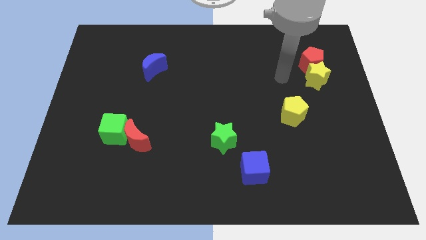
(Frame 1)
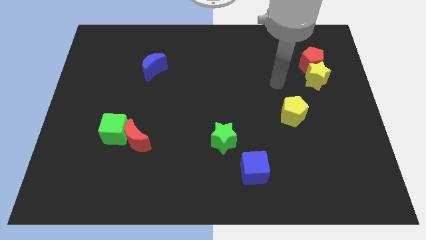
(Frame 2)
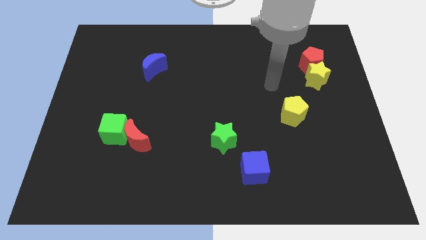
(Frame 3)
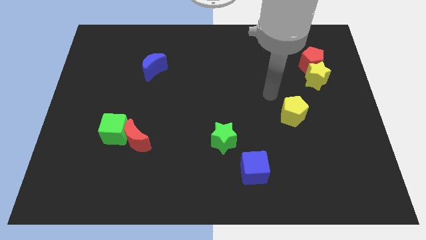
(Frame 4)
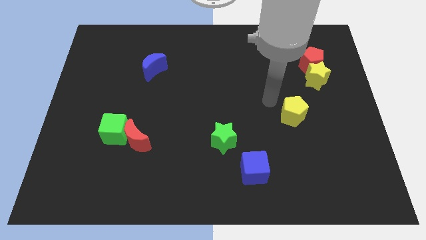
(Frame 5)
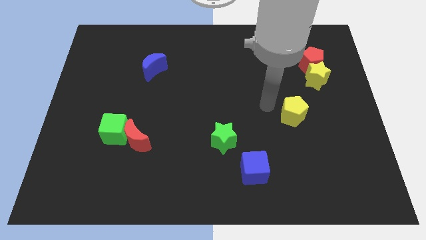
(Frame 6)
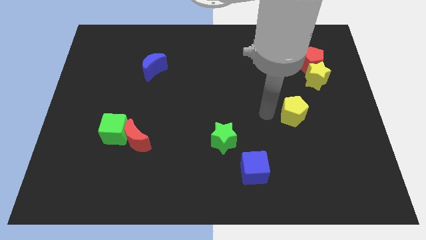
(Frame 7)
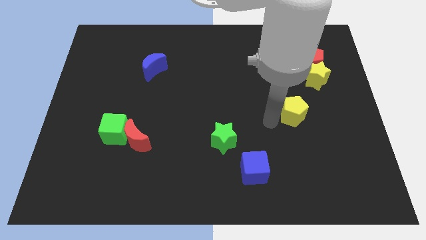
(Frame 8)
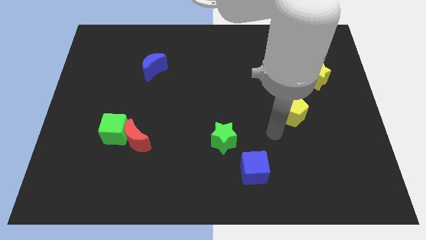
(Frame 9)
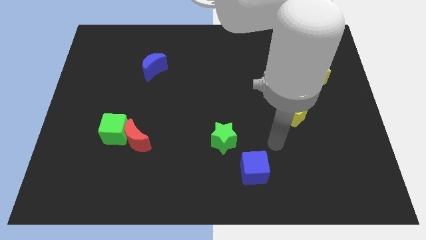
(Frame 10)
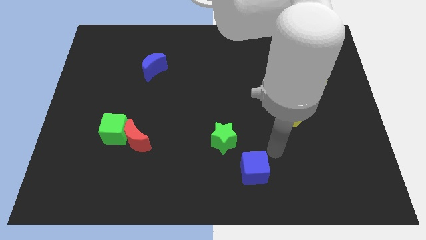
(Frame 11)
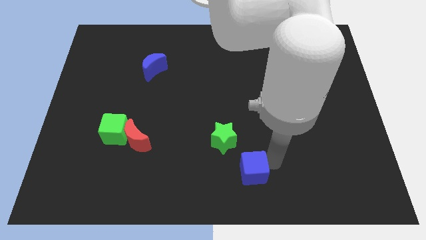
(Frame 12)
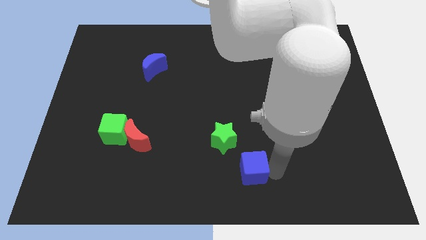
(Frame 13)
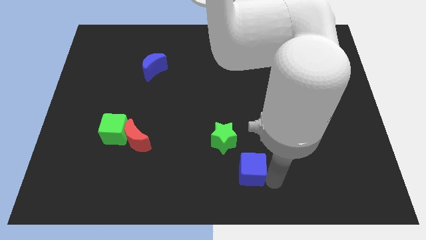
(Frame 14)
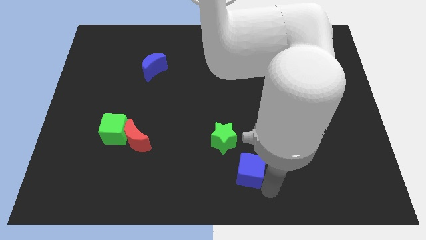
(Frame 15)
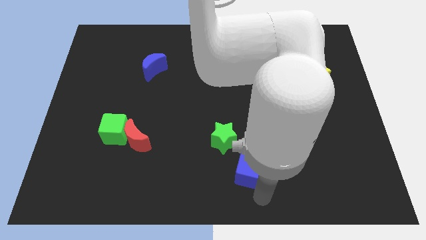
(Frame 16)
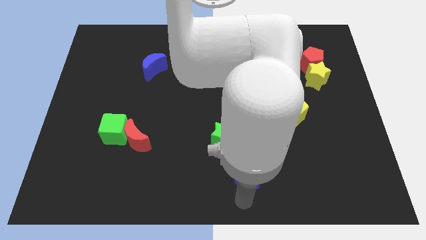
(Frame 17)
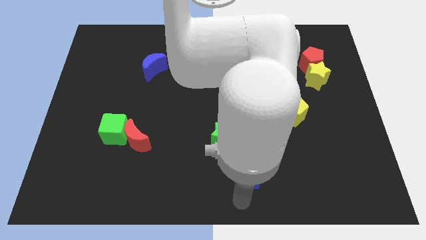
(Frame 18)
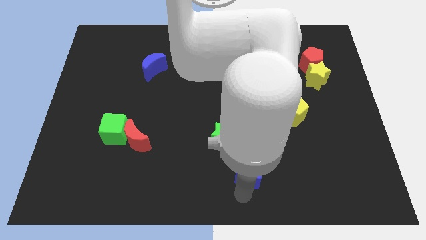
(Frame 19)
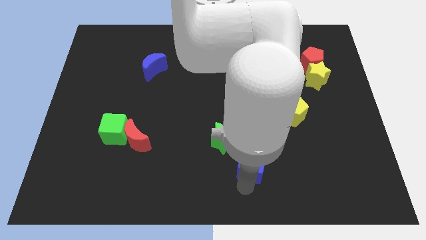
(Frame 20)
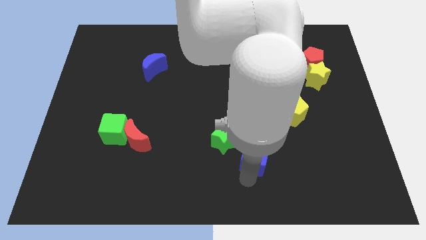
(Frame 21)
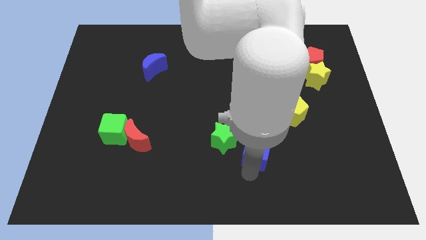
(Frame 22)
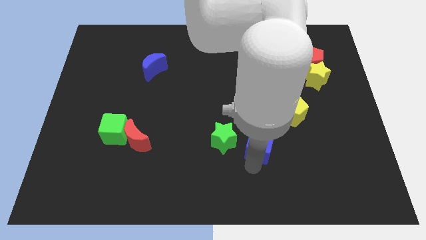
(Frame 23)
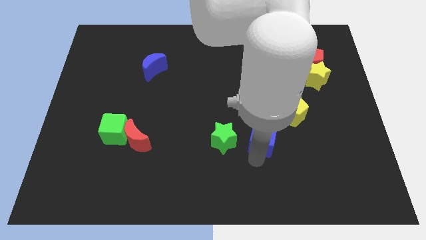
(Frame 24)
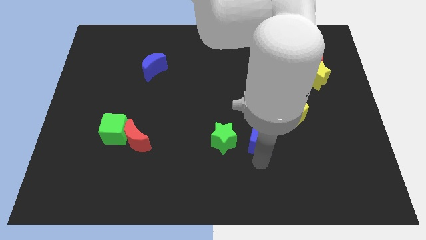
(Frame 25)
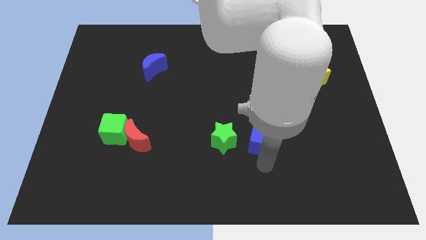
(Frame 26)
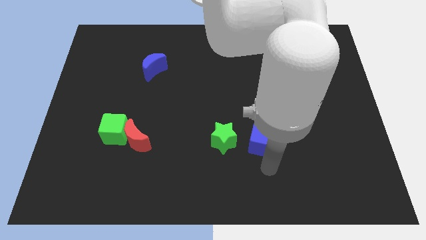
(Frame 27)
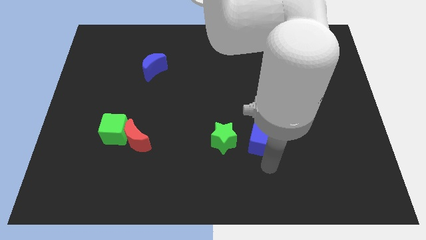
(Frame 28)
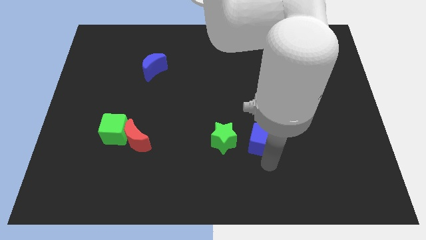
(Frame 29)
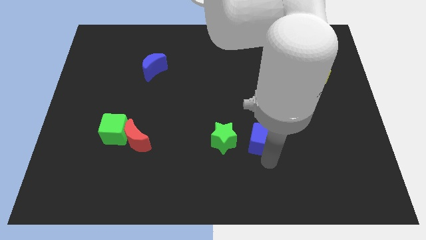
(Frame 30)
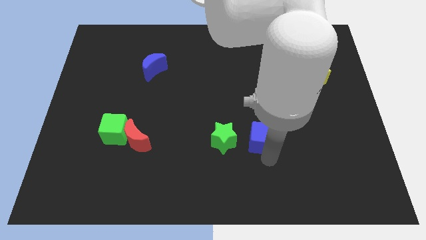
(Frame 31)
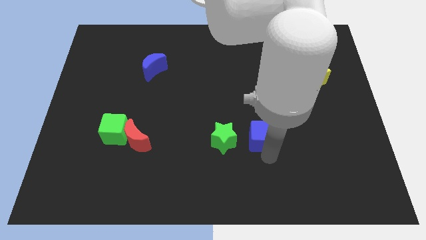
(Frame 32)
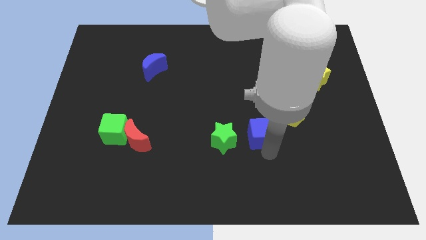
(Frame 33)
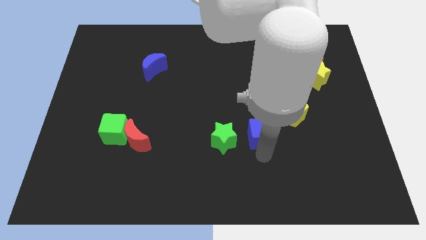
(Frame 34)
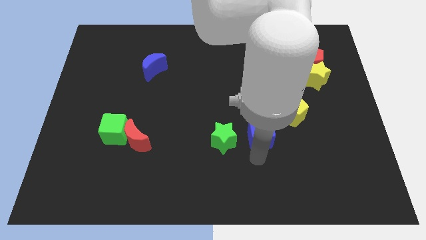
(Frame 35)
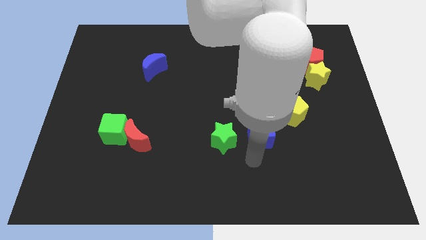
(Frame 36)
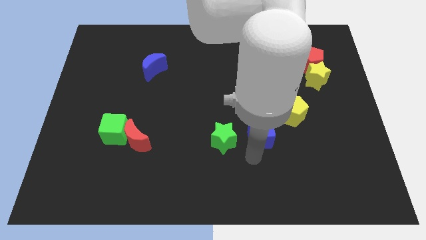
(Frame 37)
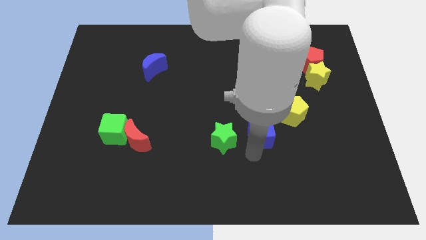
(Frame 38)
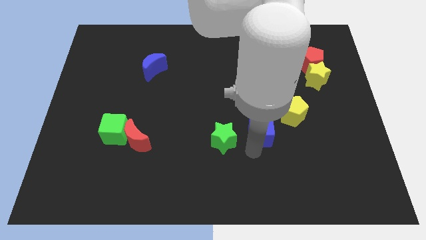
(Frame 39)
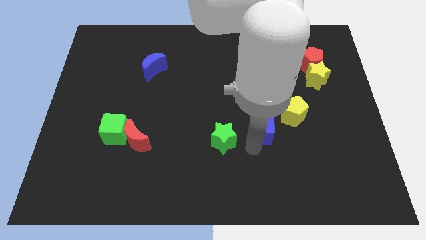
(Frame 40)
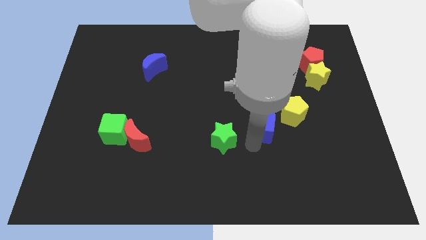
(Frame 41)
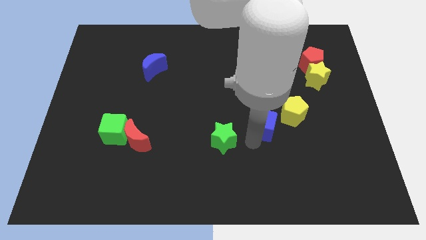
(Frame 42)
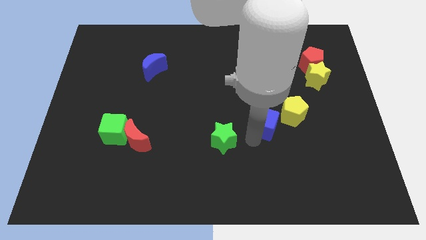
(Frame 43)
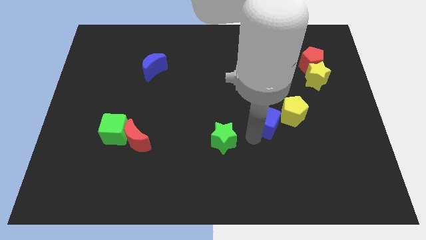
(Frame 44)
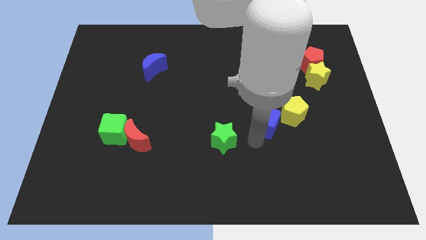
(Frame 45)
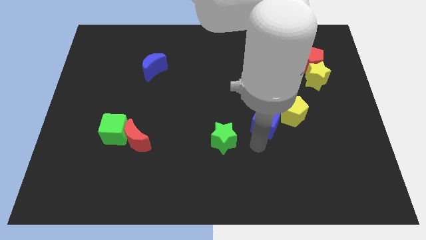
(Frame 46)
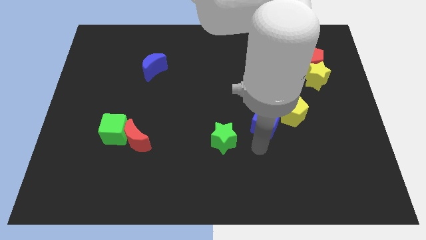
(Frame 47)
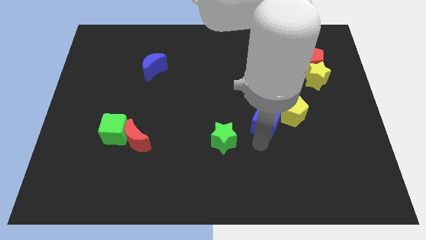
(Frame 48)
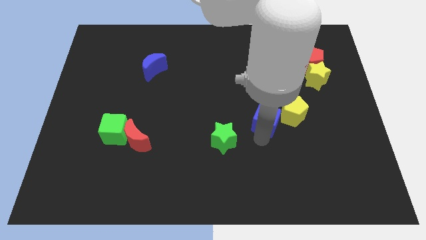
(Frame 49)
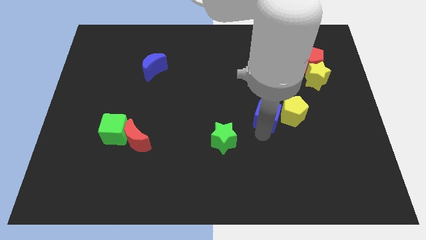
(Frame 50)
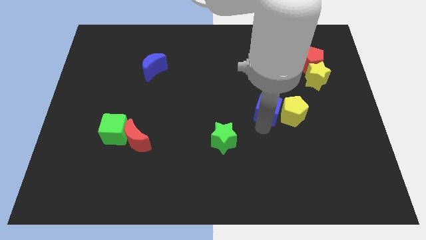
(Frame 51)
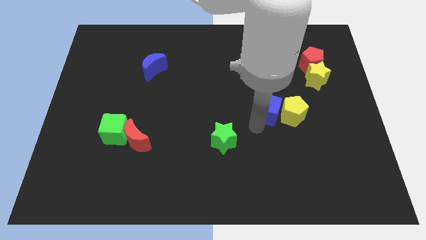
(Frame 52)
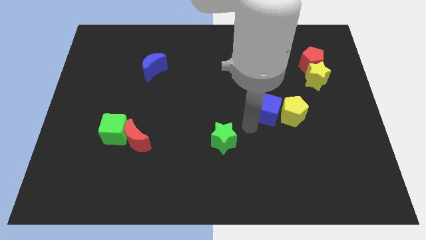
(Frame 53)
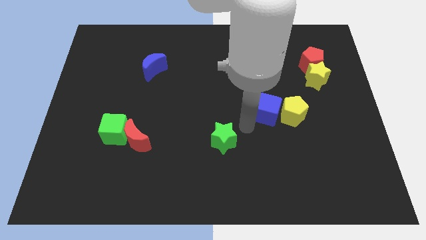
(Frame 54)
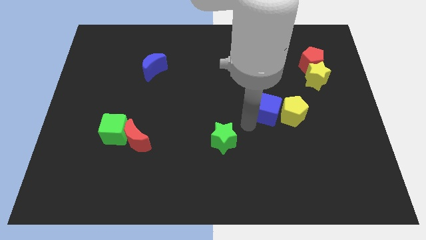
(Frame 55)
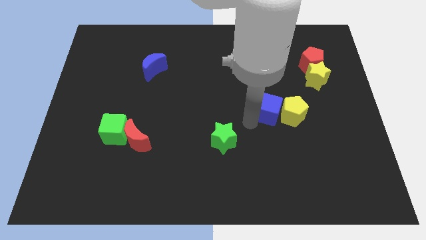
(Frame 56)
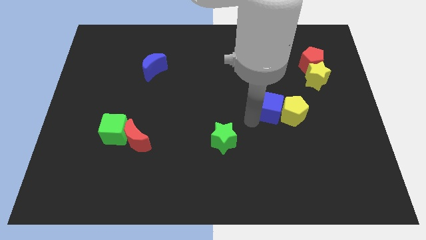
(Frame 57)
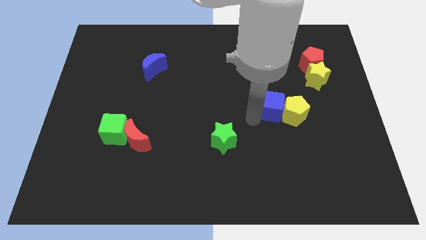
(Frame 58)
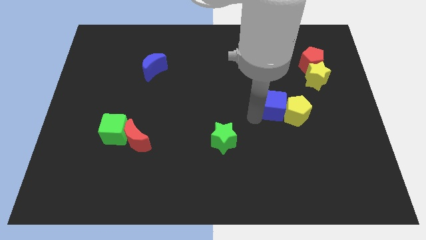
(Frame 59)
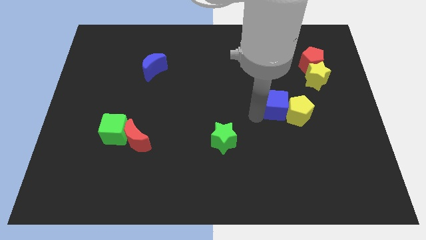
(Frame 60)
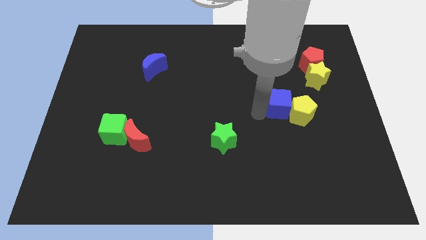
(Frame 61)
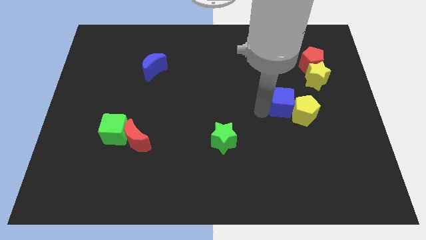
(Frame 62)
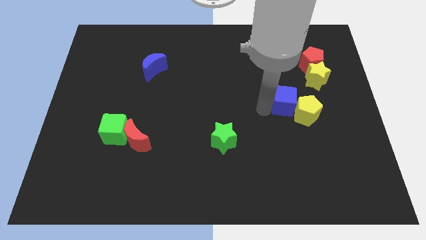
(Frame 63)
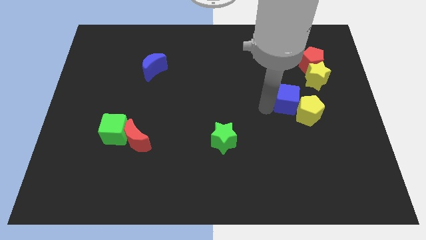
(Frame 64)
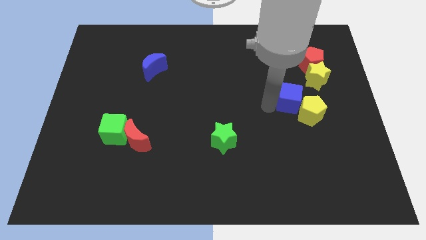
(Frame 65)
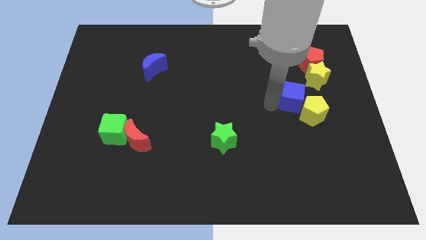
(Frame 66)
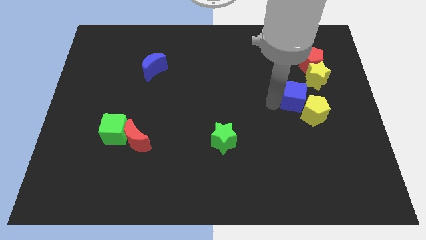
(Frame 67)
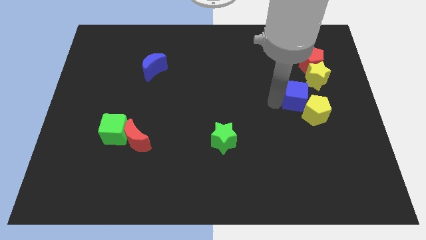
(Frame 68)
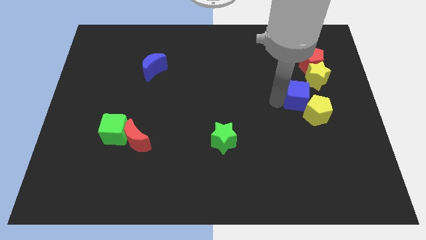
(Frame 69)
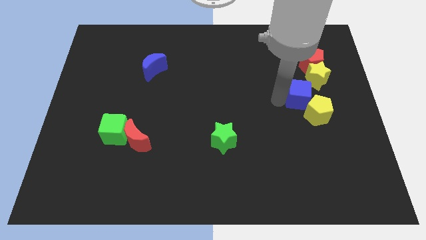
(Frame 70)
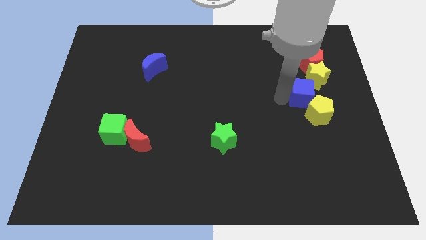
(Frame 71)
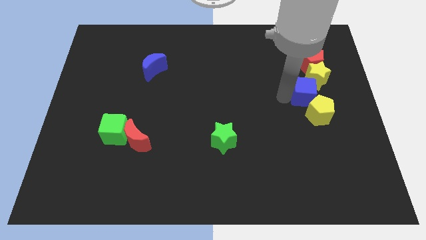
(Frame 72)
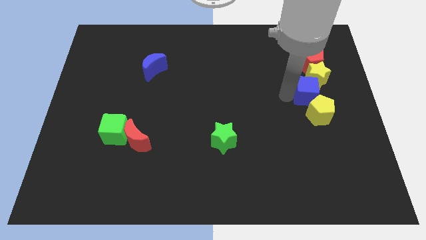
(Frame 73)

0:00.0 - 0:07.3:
move the blue cube towards the yellow star
